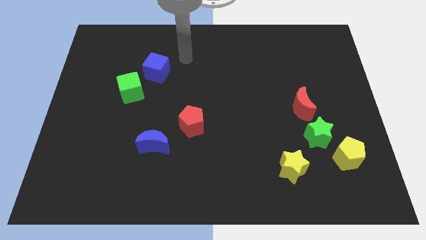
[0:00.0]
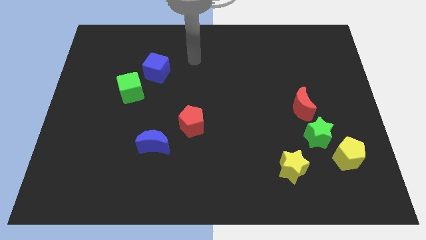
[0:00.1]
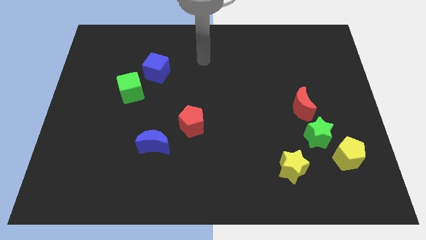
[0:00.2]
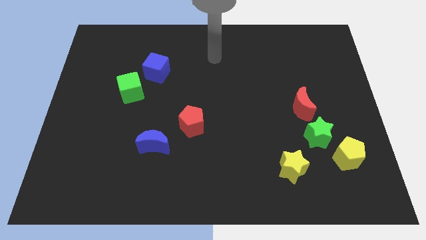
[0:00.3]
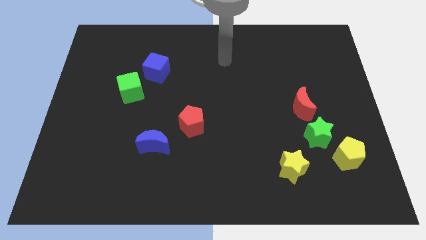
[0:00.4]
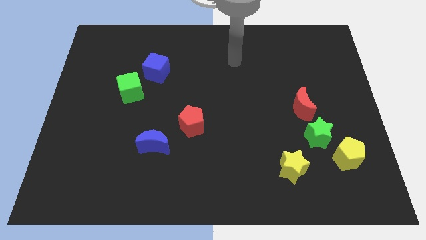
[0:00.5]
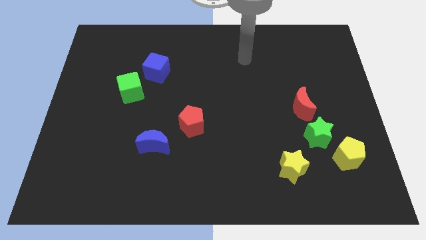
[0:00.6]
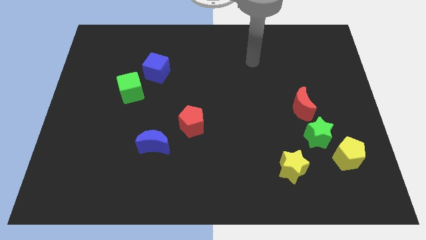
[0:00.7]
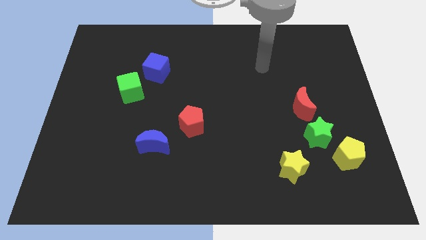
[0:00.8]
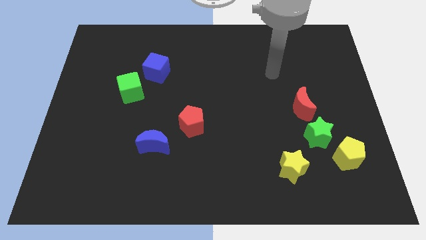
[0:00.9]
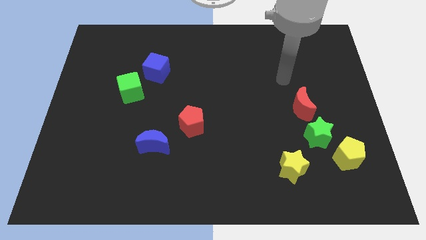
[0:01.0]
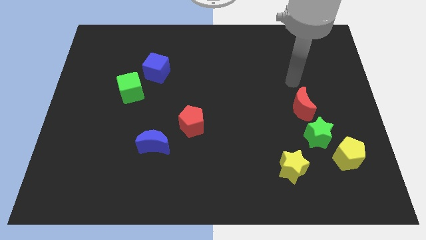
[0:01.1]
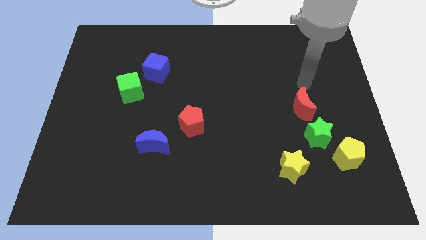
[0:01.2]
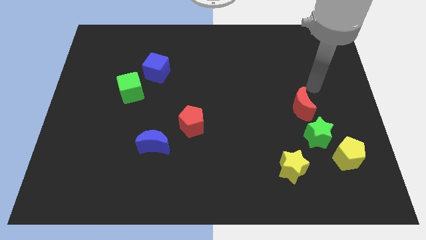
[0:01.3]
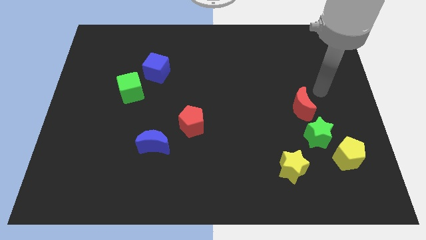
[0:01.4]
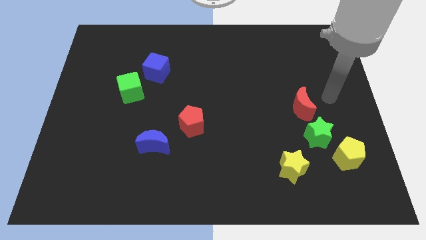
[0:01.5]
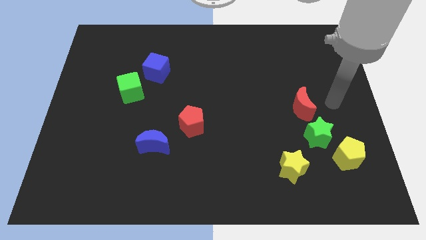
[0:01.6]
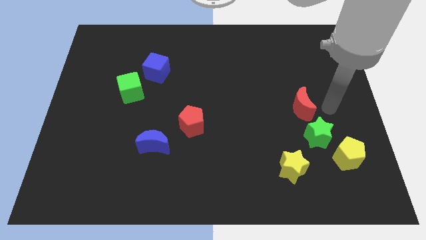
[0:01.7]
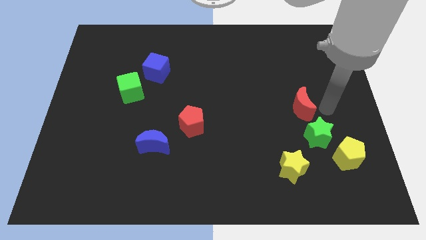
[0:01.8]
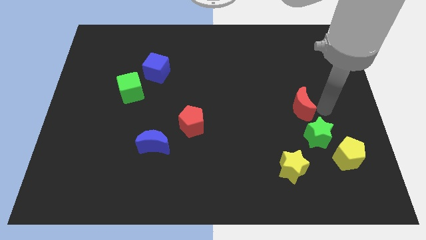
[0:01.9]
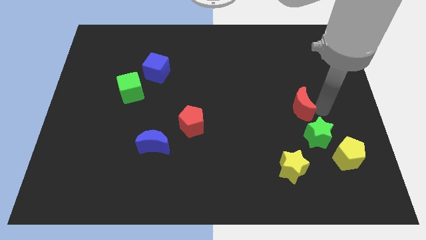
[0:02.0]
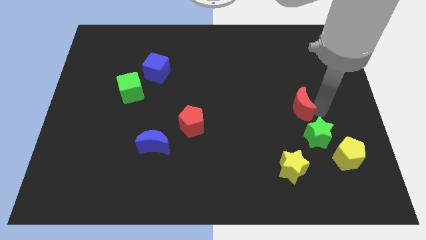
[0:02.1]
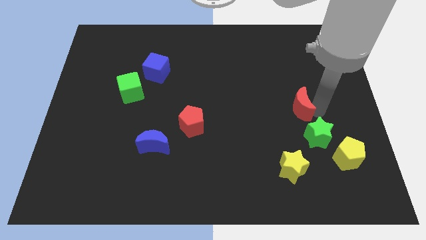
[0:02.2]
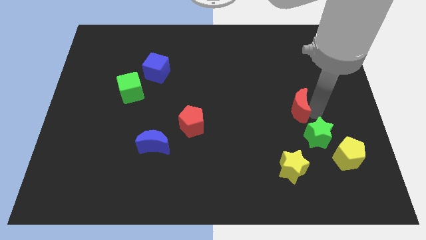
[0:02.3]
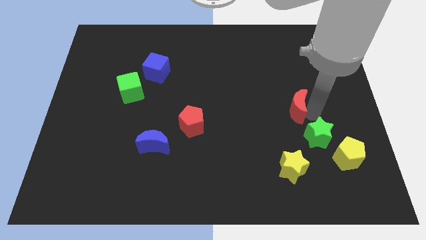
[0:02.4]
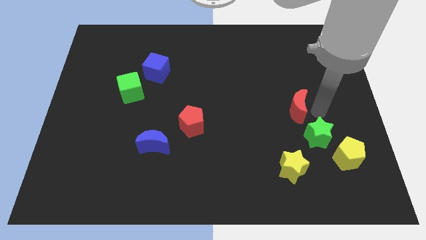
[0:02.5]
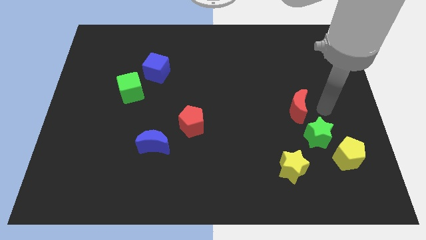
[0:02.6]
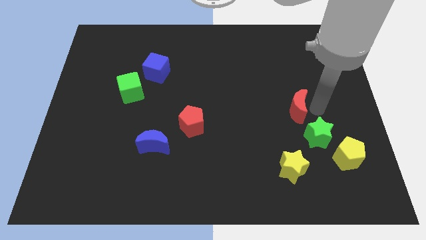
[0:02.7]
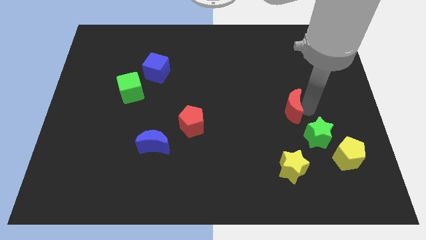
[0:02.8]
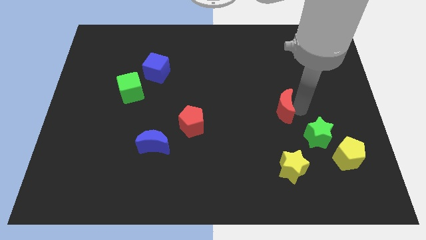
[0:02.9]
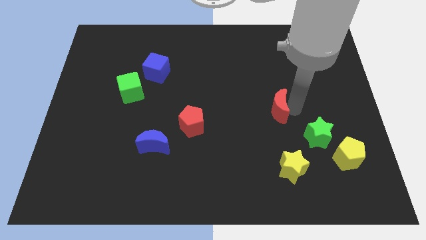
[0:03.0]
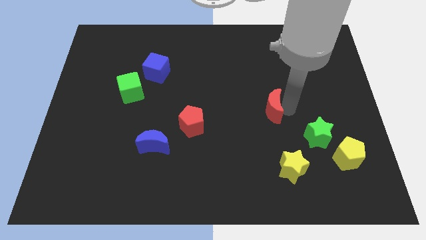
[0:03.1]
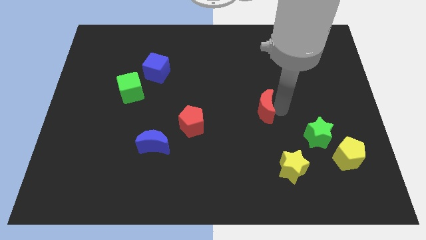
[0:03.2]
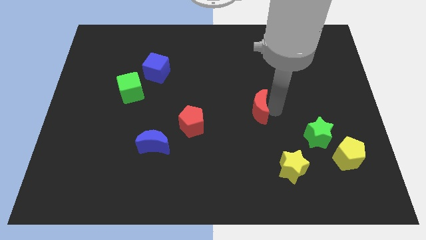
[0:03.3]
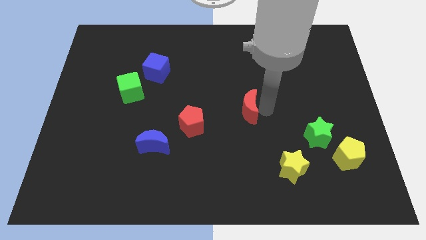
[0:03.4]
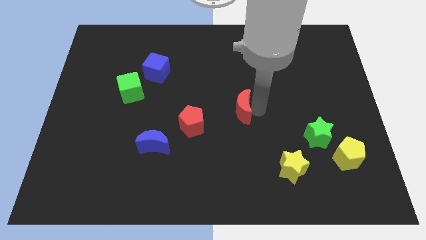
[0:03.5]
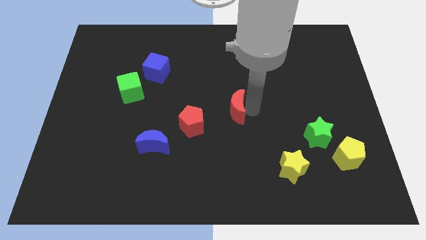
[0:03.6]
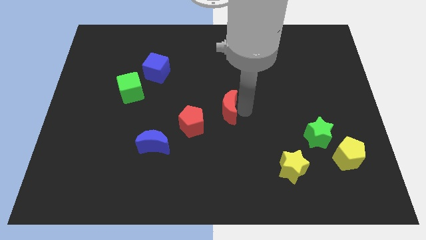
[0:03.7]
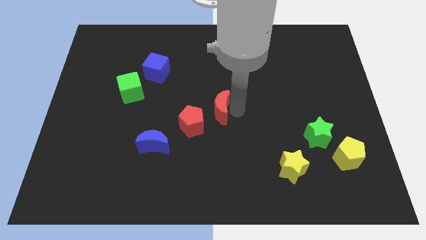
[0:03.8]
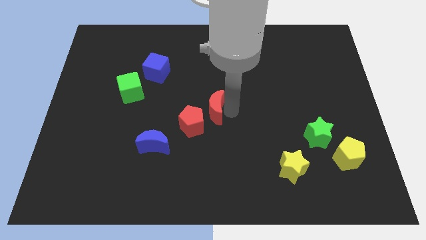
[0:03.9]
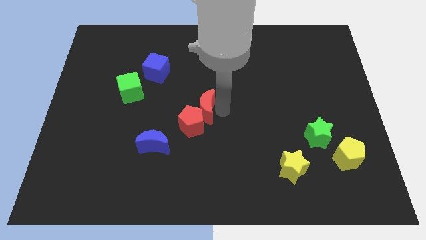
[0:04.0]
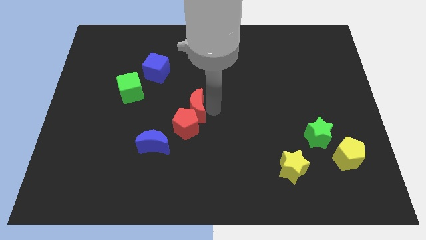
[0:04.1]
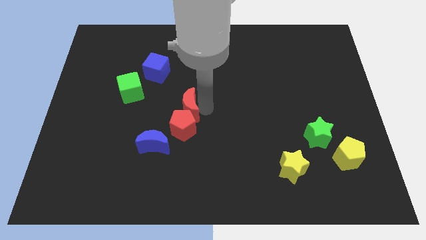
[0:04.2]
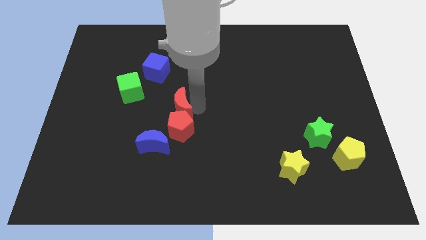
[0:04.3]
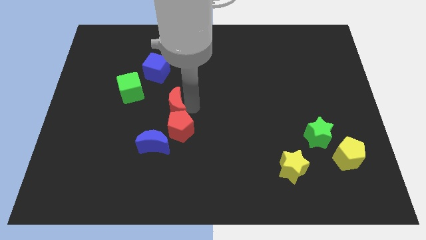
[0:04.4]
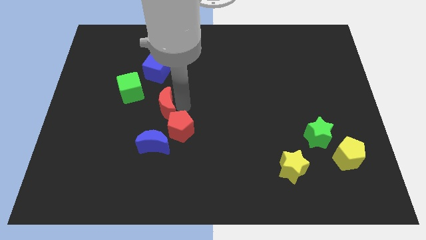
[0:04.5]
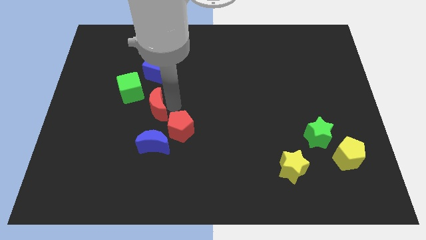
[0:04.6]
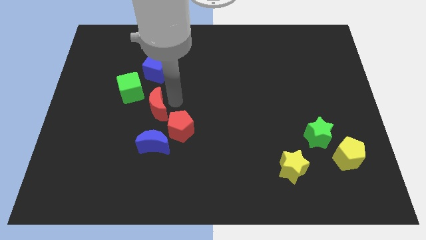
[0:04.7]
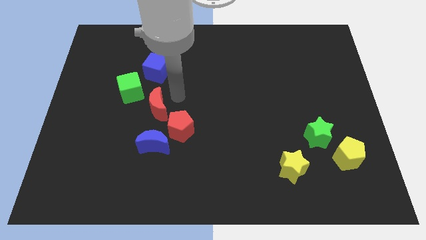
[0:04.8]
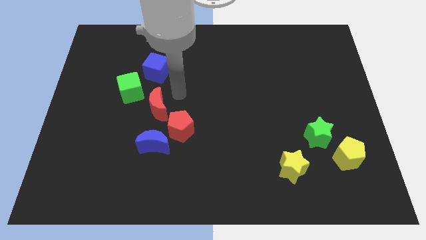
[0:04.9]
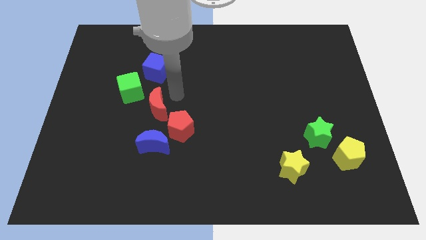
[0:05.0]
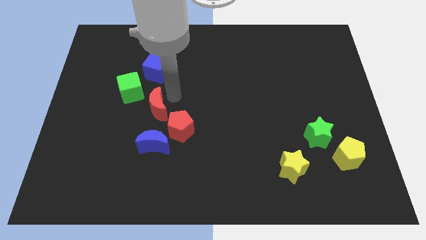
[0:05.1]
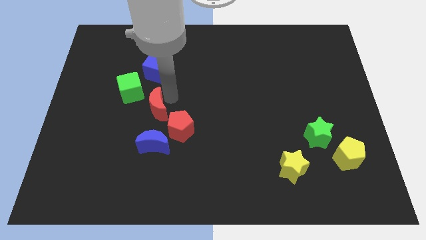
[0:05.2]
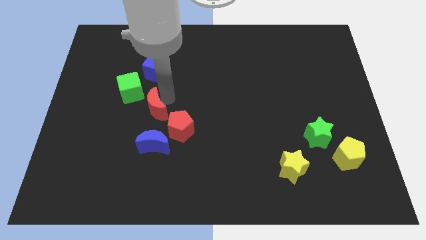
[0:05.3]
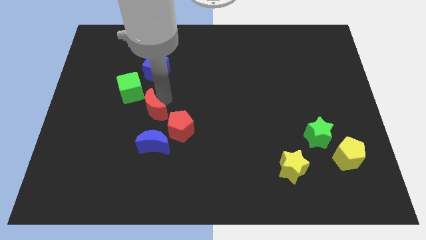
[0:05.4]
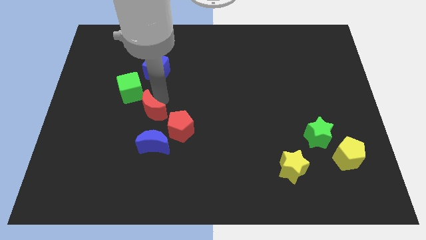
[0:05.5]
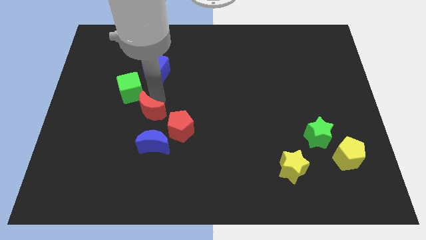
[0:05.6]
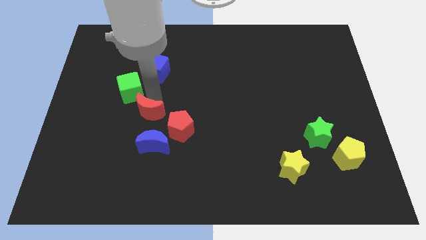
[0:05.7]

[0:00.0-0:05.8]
move the red moon to the top left of the blue moon

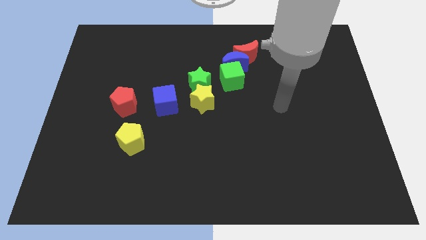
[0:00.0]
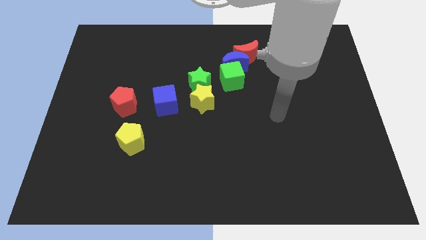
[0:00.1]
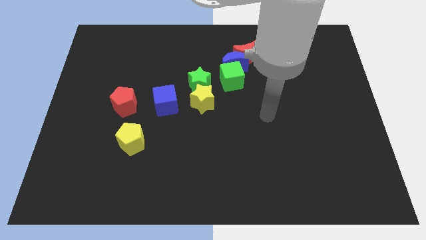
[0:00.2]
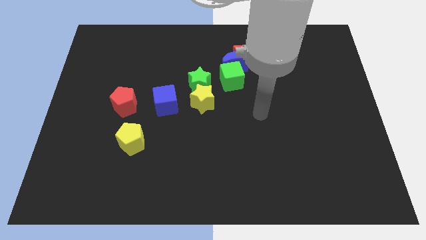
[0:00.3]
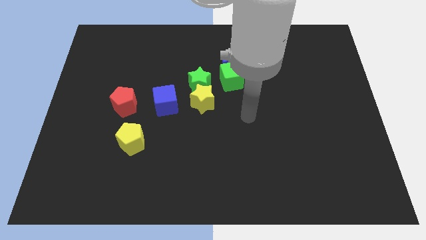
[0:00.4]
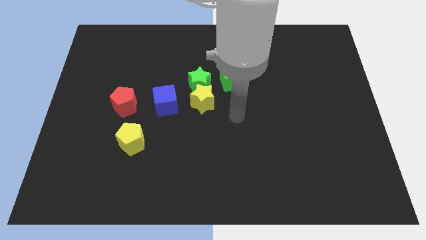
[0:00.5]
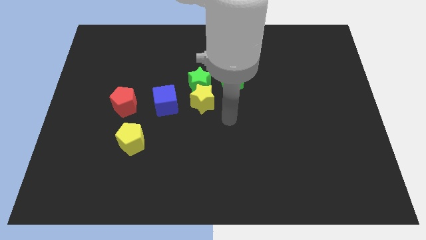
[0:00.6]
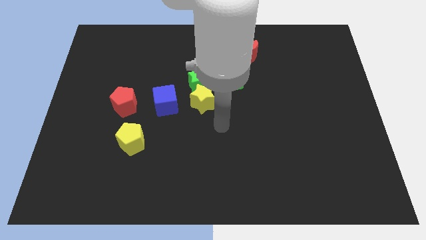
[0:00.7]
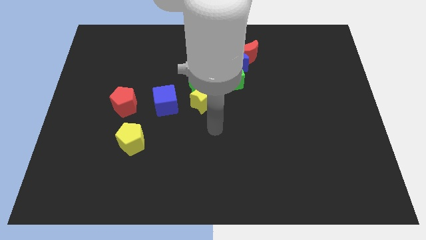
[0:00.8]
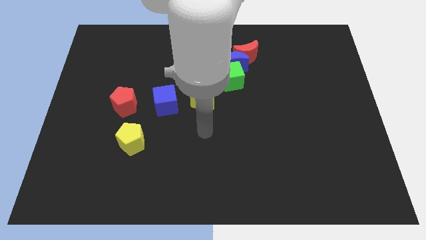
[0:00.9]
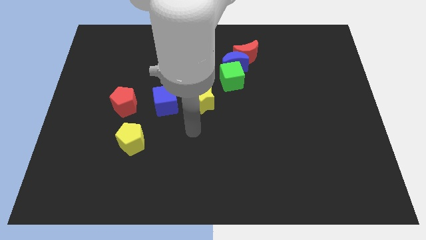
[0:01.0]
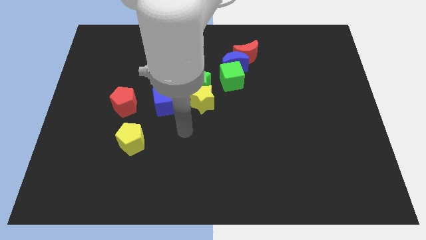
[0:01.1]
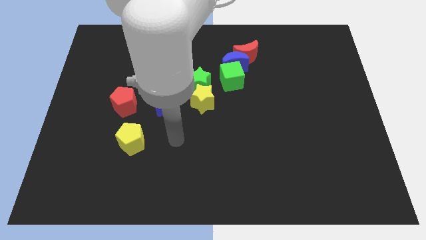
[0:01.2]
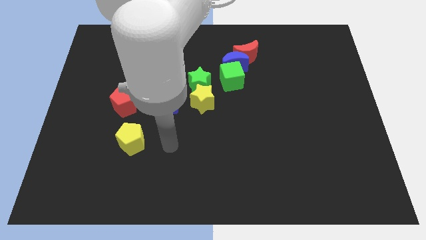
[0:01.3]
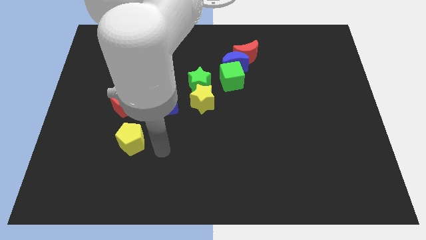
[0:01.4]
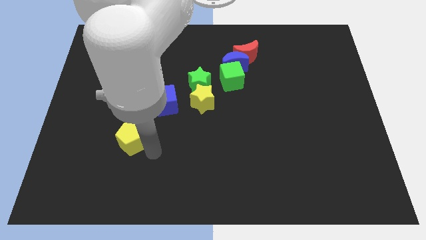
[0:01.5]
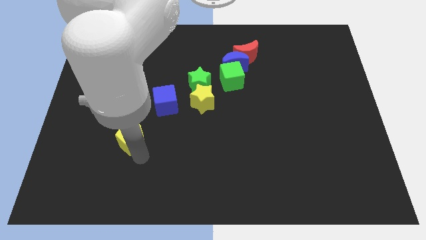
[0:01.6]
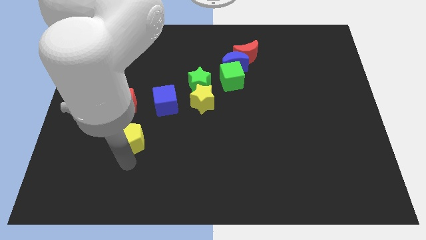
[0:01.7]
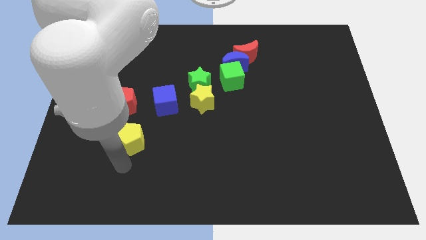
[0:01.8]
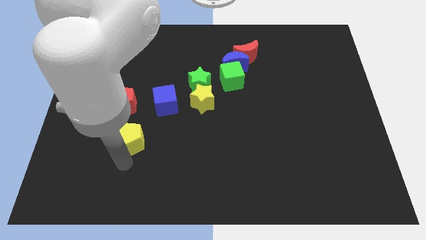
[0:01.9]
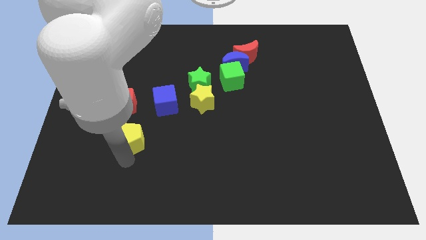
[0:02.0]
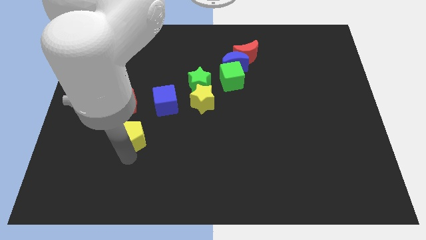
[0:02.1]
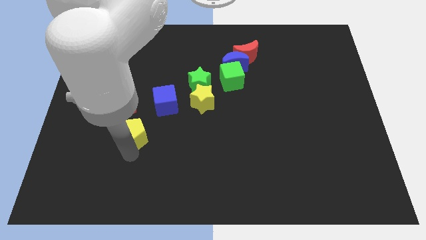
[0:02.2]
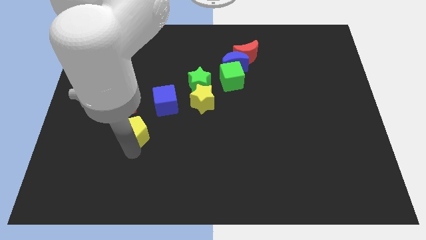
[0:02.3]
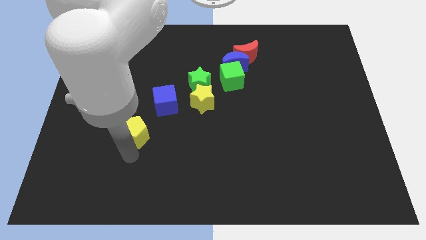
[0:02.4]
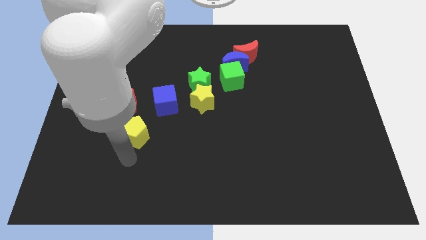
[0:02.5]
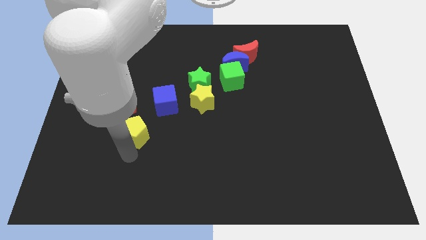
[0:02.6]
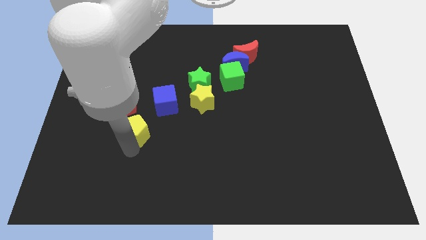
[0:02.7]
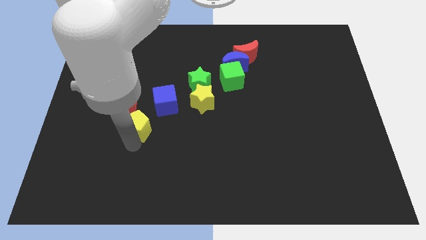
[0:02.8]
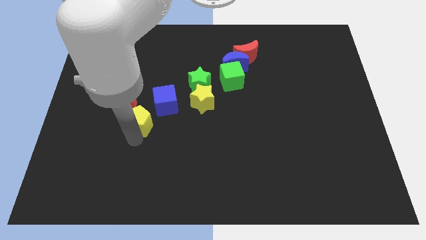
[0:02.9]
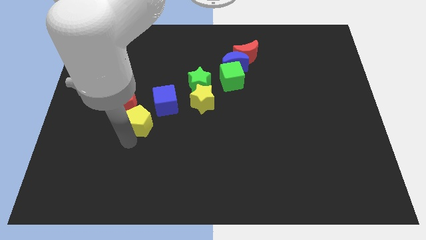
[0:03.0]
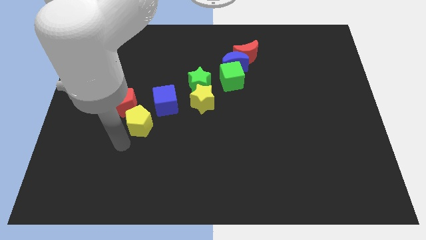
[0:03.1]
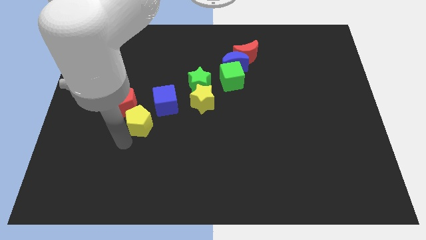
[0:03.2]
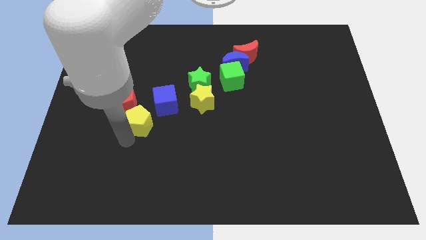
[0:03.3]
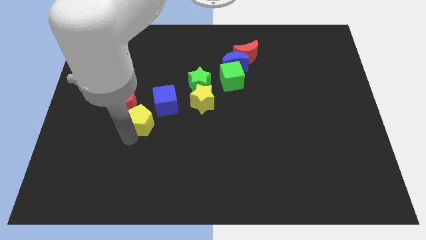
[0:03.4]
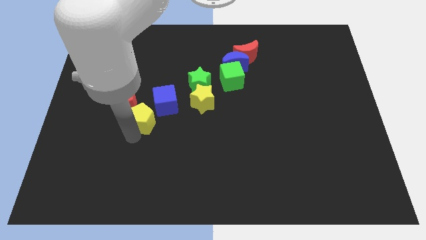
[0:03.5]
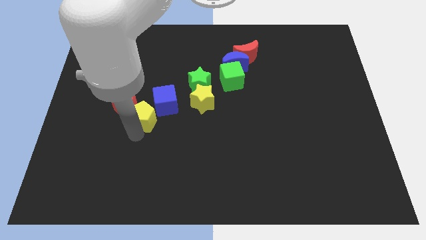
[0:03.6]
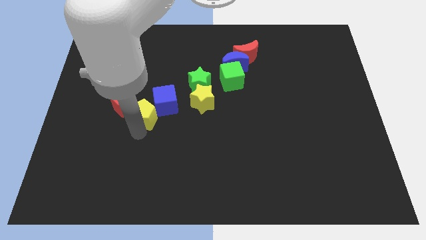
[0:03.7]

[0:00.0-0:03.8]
move the yellow pentagon to the left side of the yellow star
